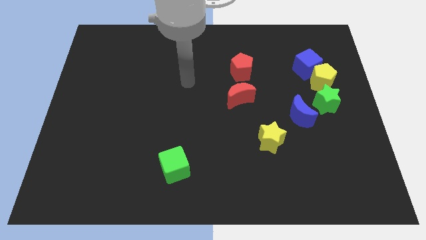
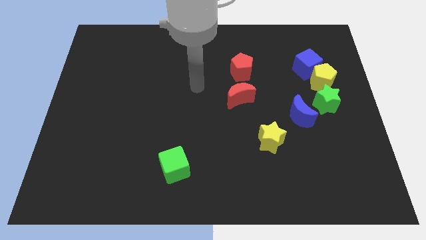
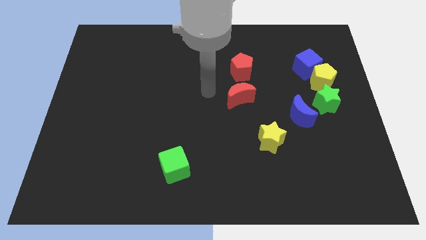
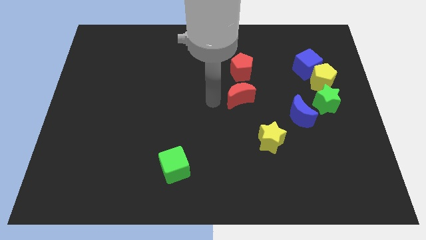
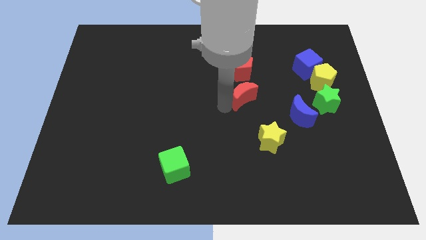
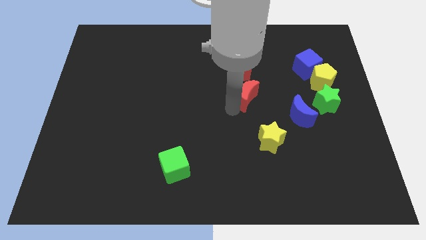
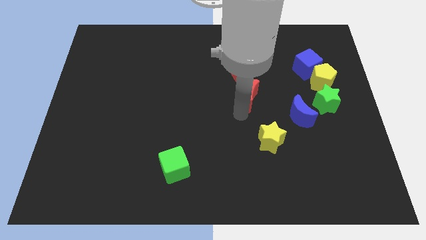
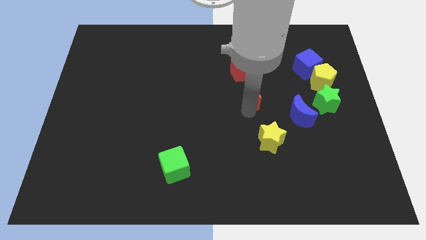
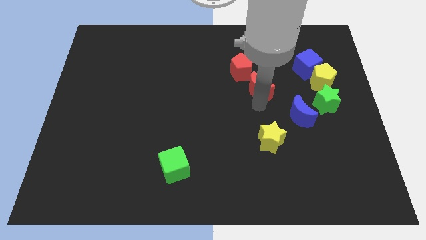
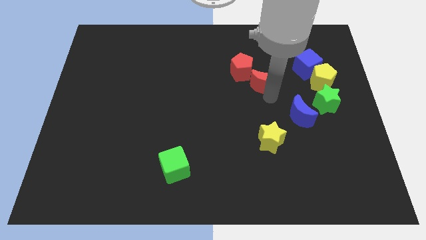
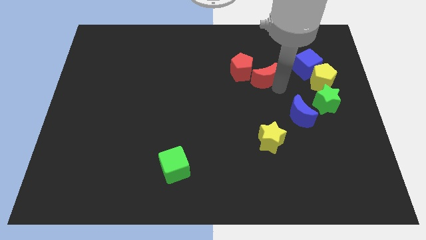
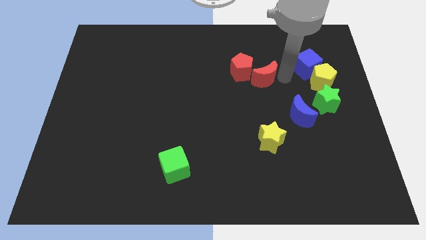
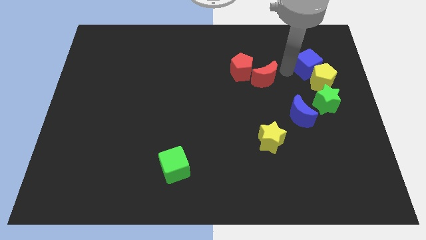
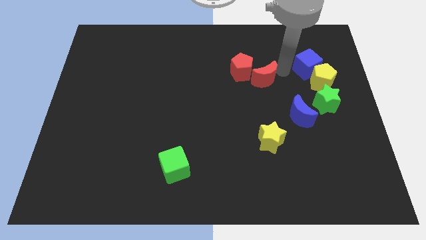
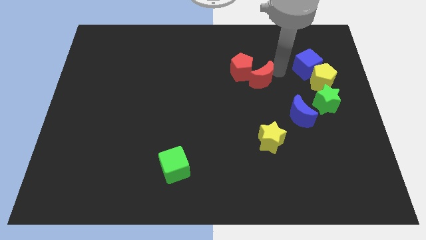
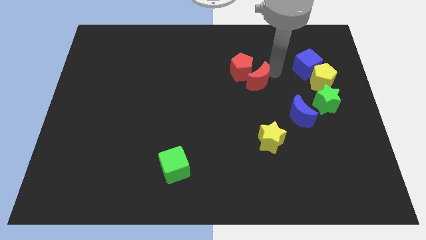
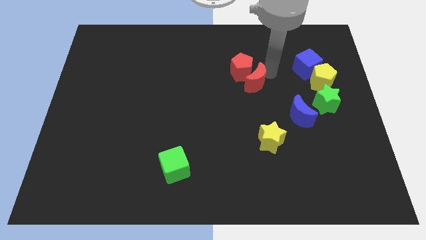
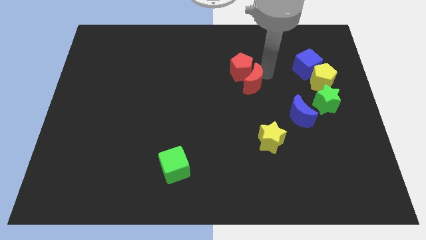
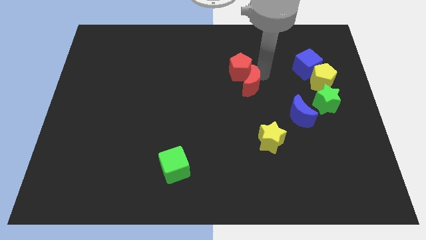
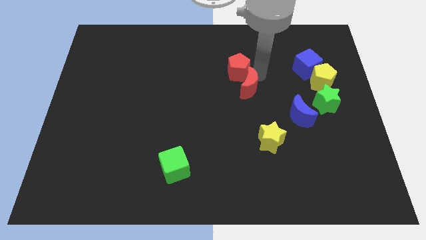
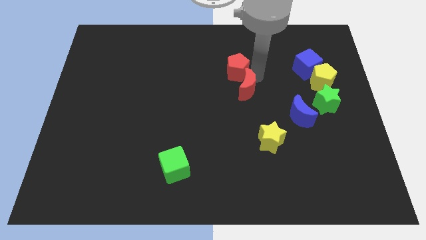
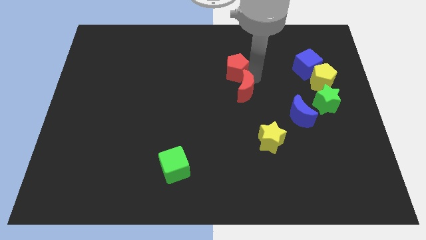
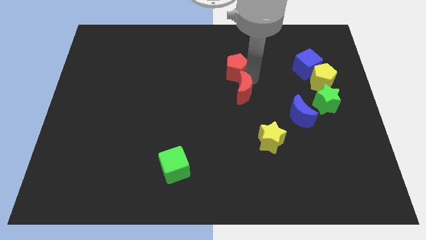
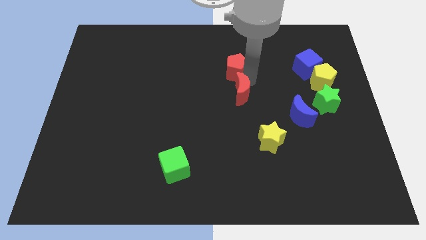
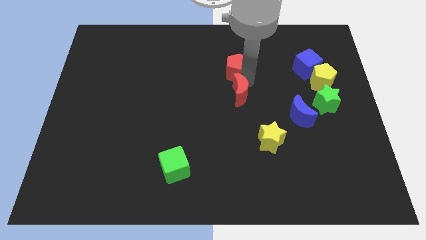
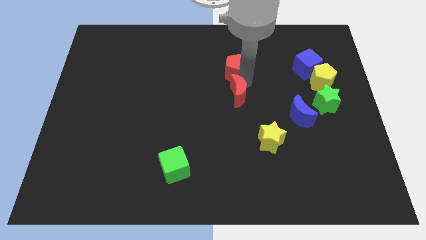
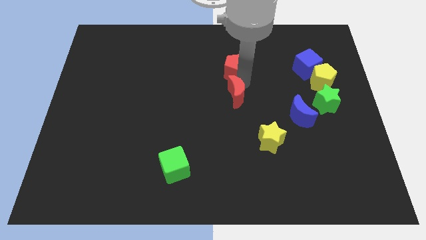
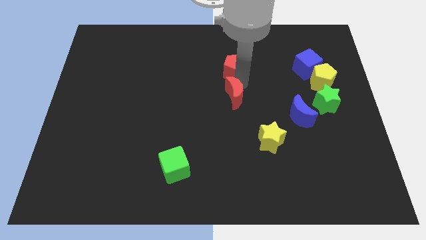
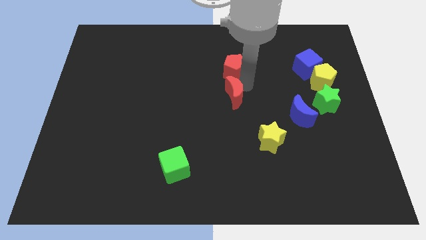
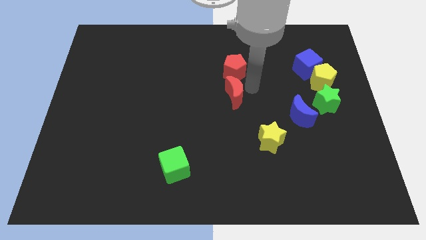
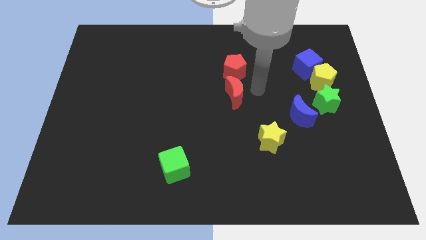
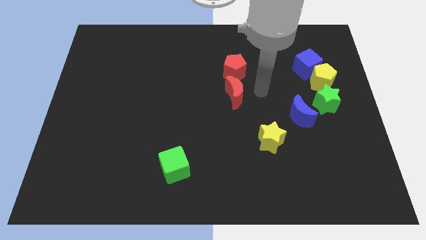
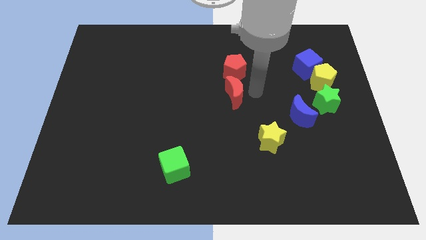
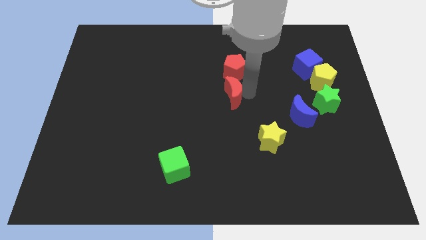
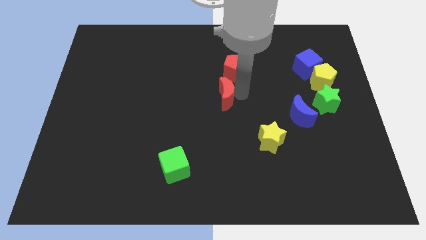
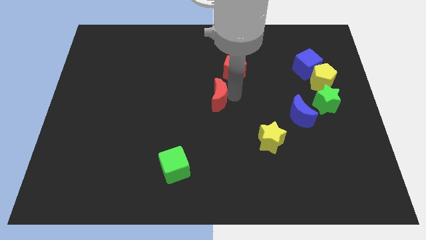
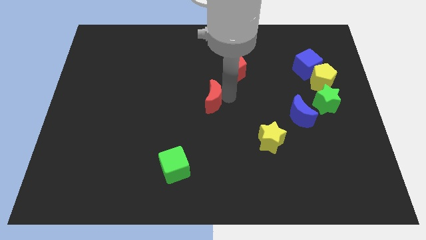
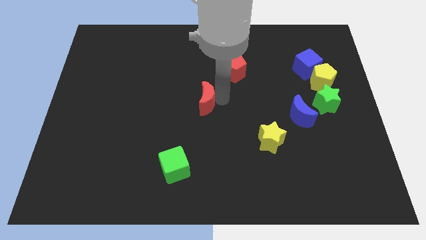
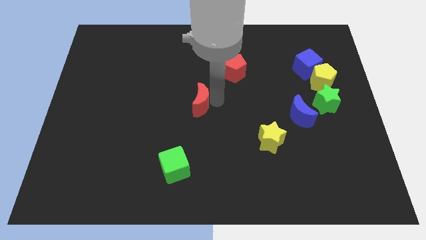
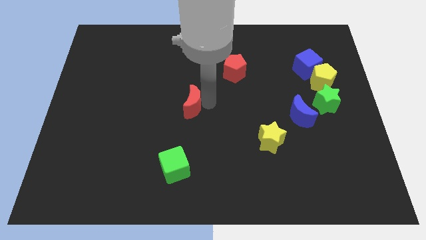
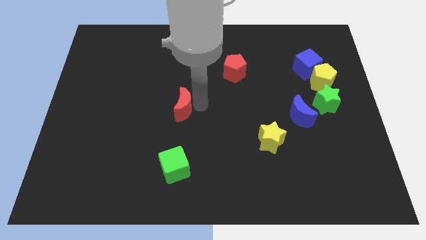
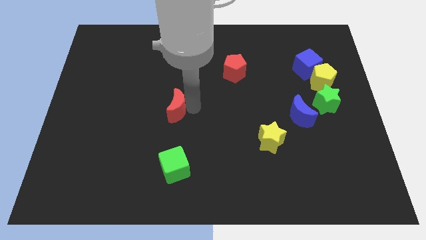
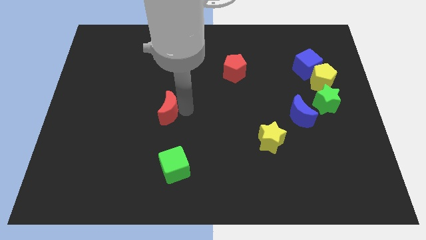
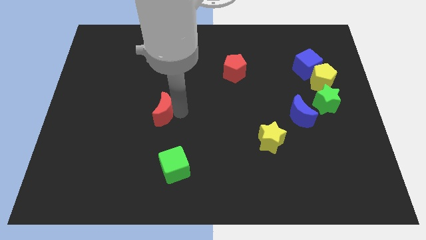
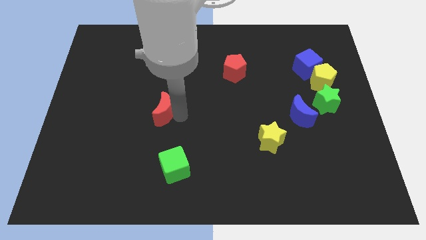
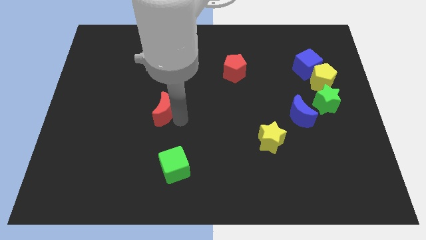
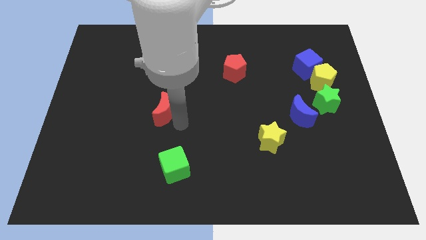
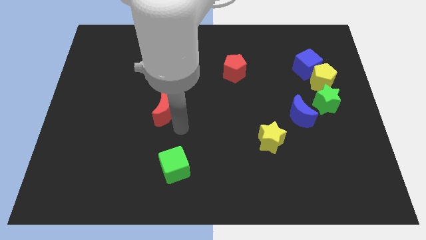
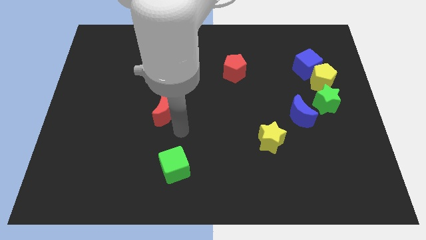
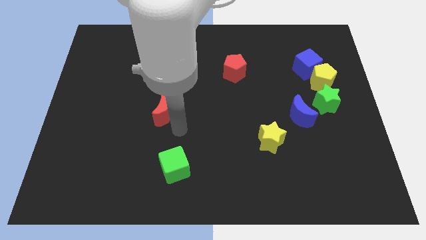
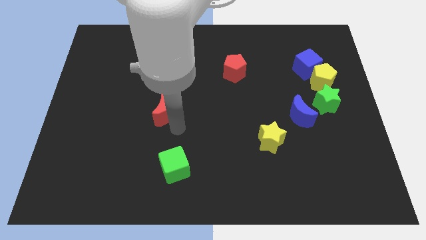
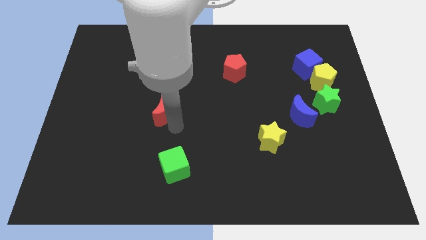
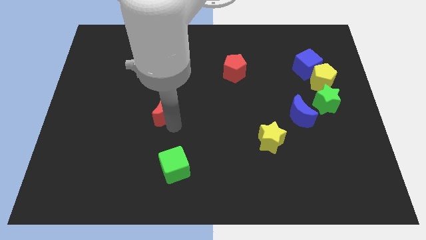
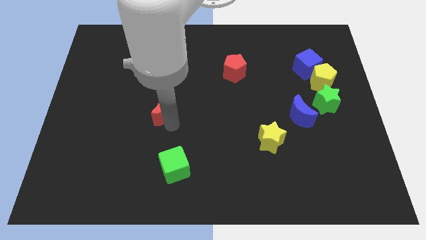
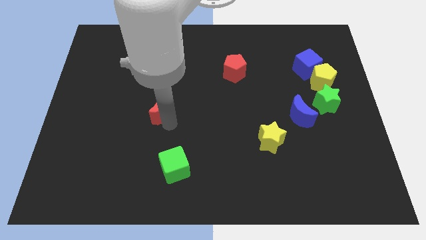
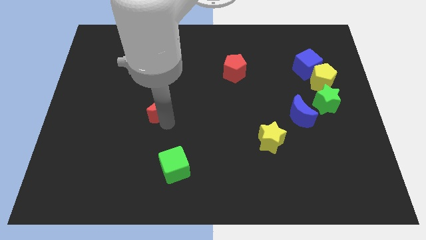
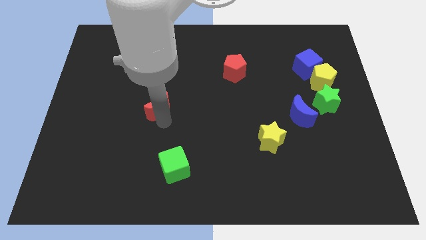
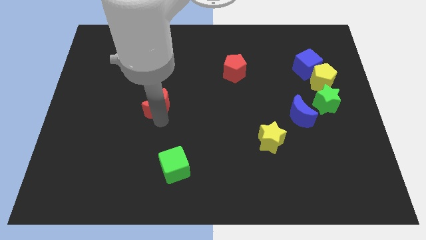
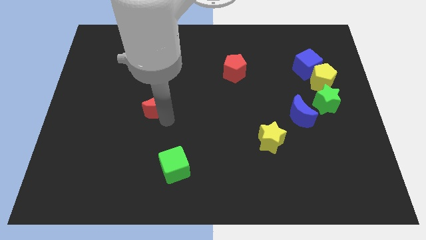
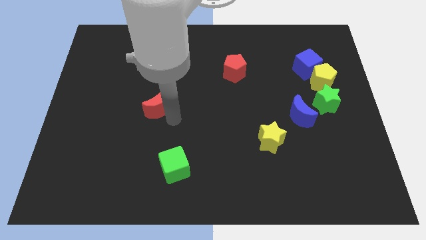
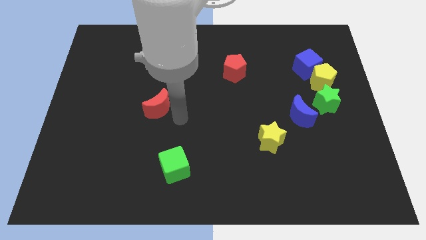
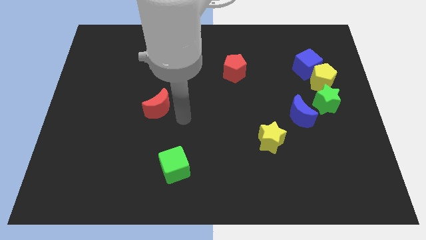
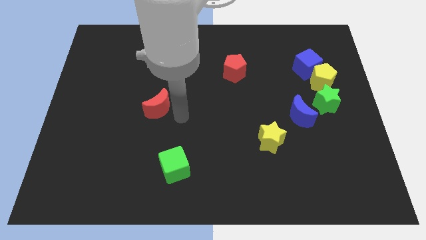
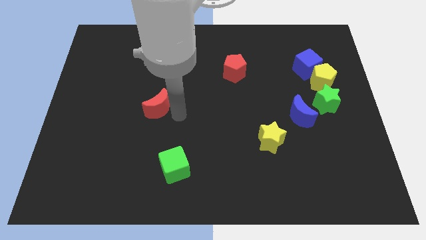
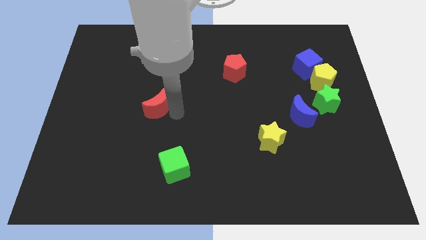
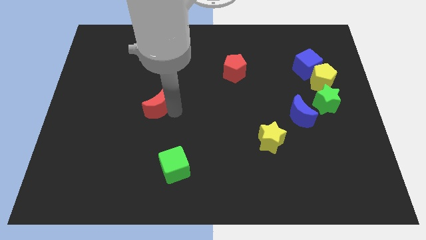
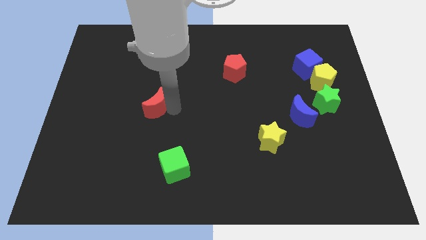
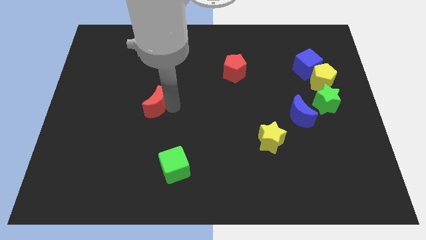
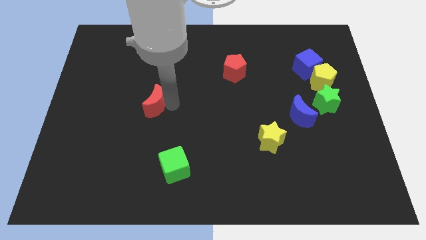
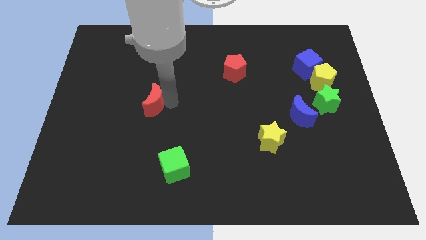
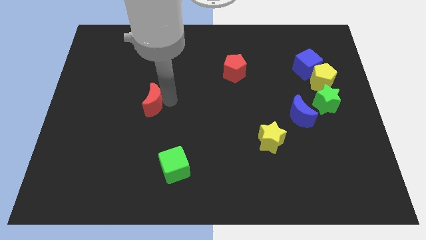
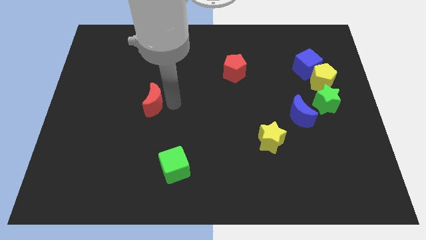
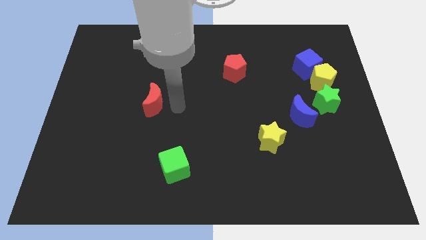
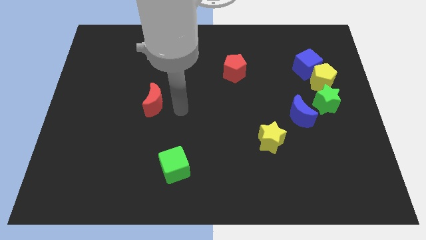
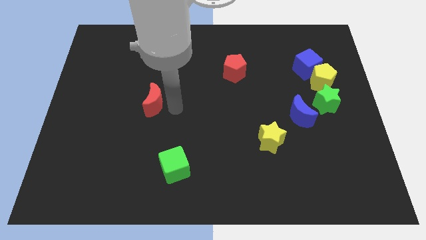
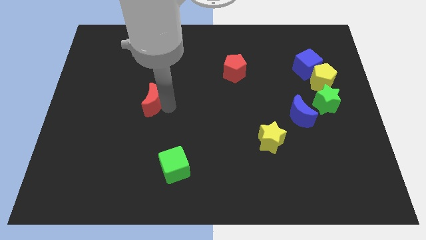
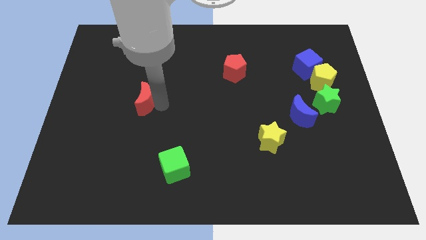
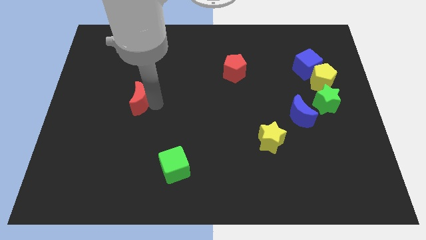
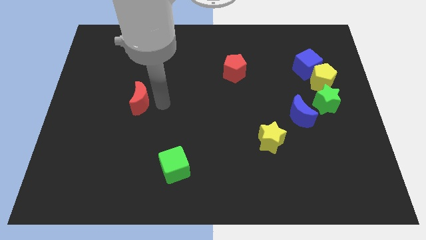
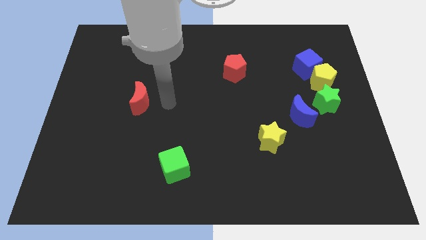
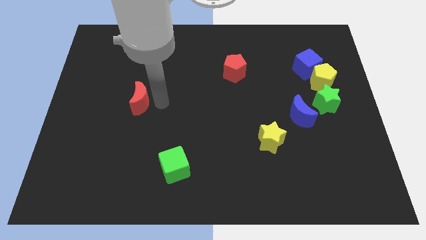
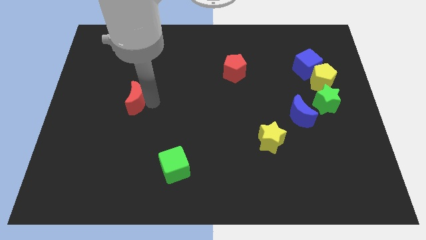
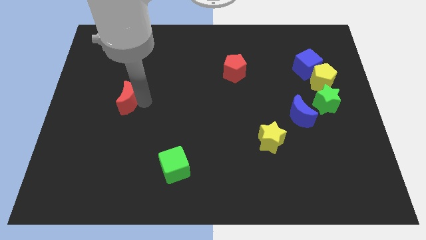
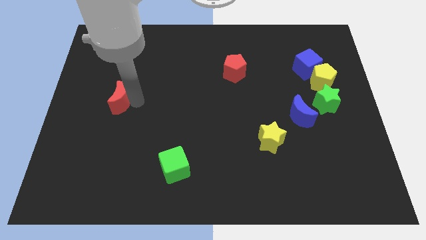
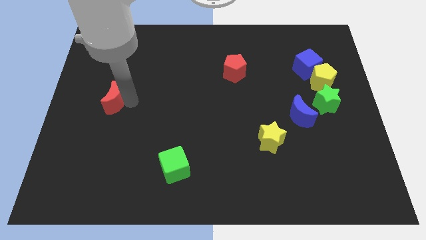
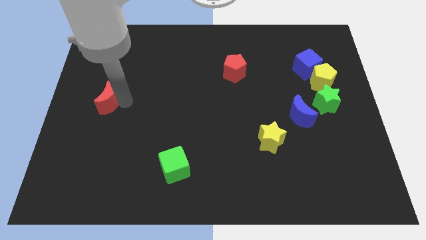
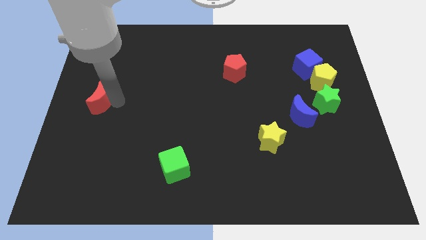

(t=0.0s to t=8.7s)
move the red moon to the center left
